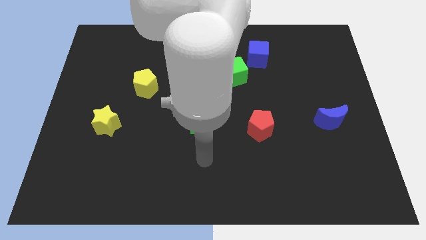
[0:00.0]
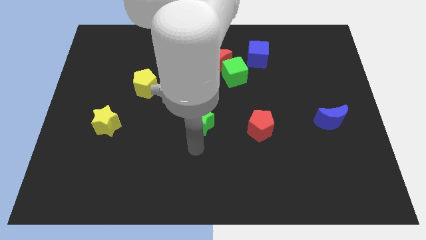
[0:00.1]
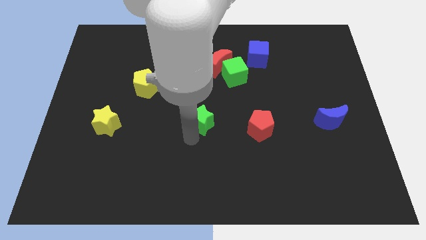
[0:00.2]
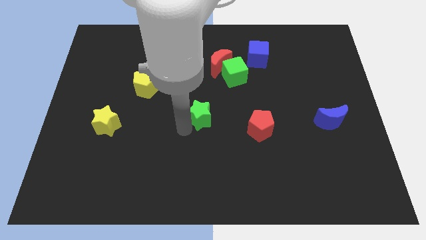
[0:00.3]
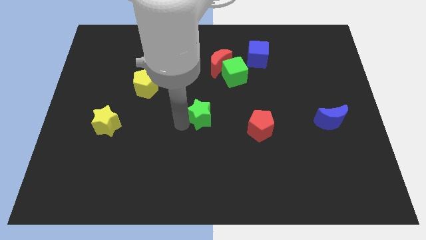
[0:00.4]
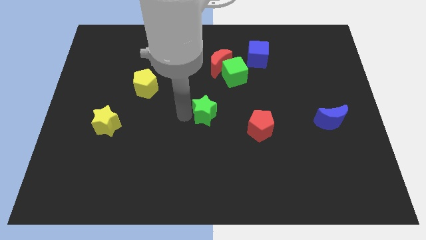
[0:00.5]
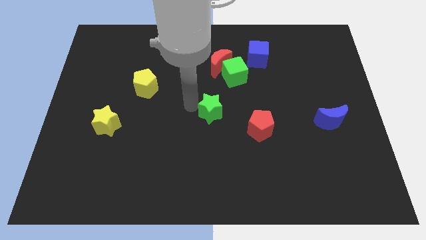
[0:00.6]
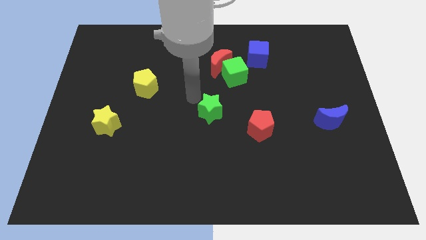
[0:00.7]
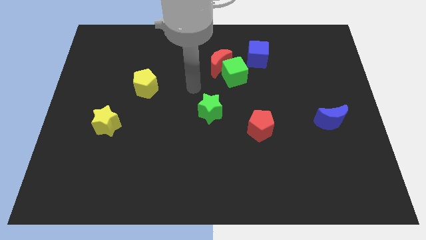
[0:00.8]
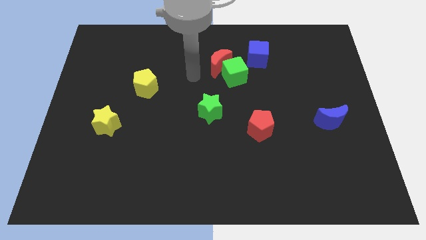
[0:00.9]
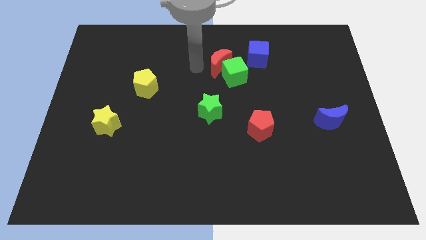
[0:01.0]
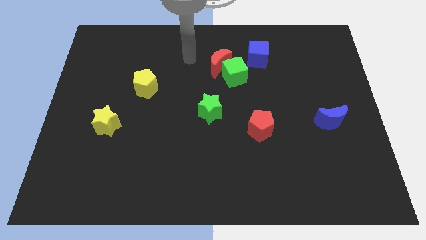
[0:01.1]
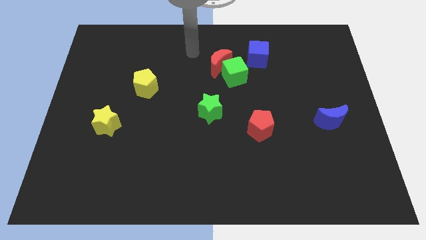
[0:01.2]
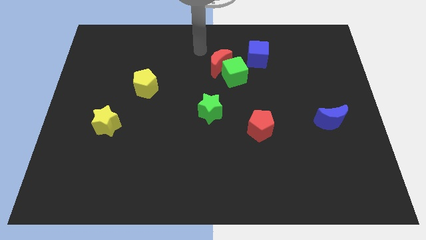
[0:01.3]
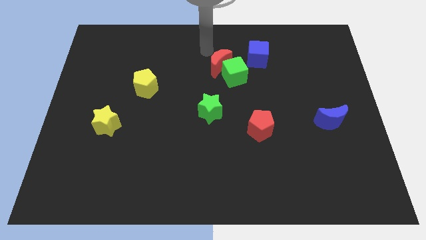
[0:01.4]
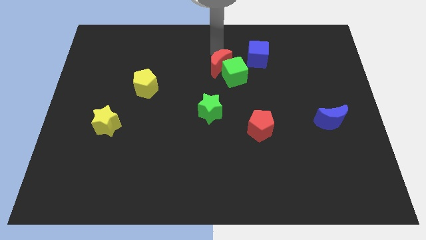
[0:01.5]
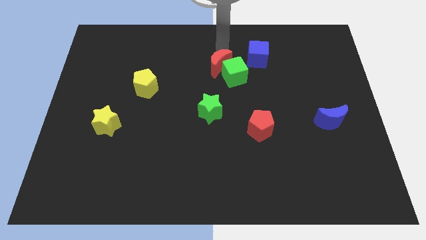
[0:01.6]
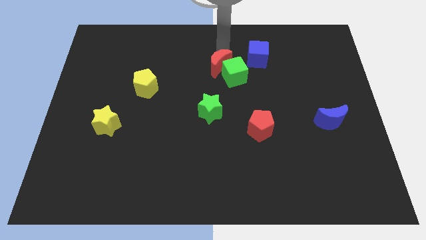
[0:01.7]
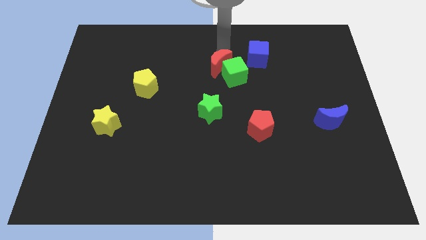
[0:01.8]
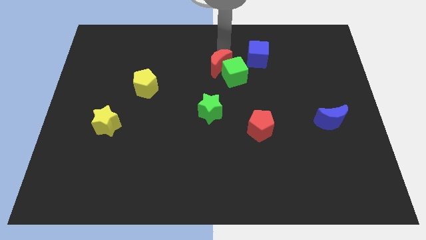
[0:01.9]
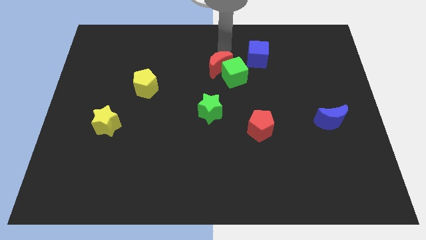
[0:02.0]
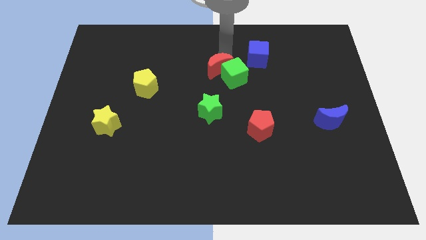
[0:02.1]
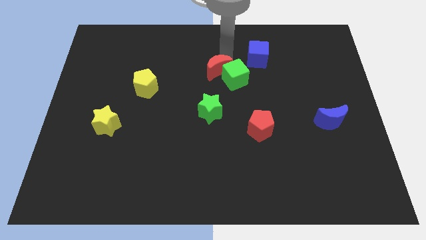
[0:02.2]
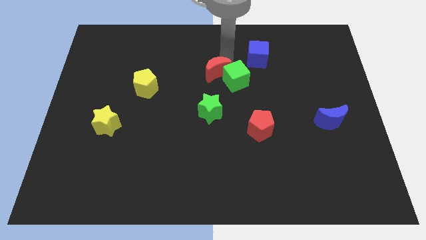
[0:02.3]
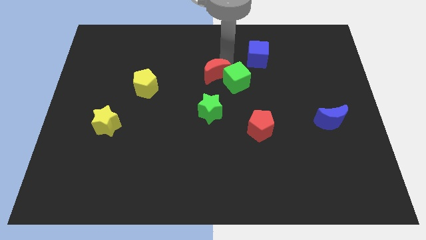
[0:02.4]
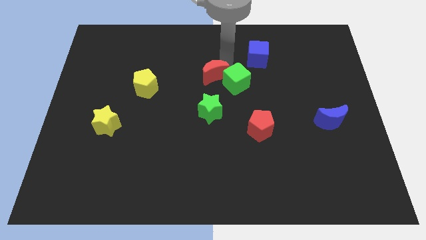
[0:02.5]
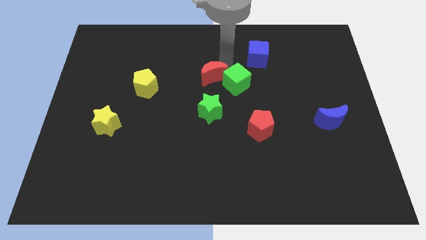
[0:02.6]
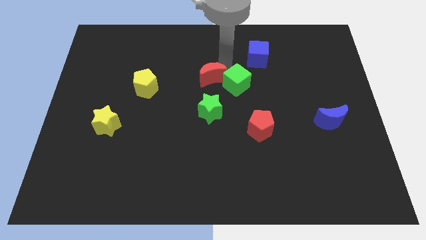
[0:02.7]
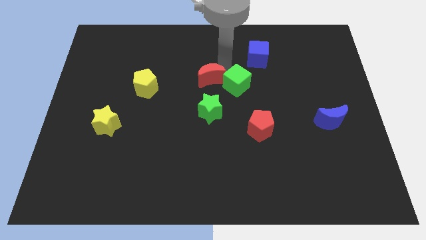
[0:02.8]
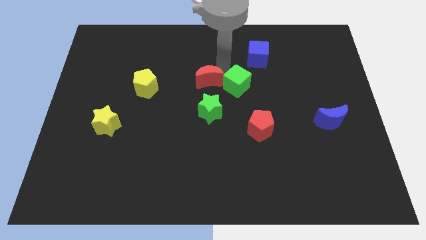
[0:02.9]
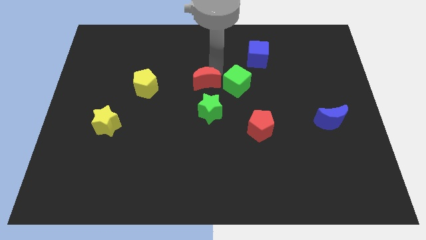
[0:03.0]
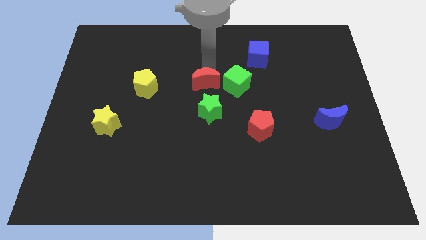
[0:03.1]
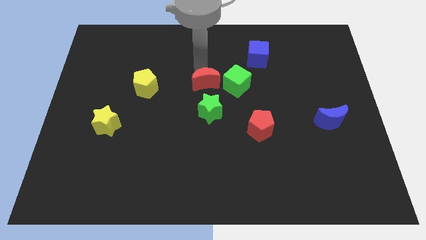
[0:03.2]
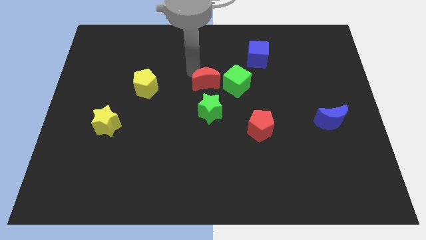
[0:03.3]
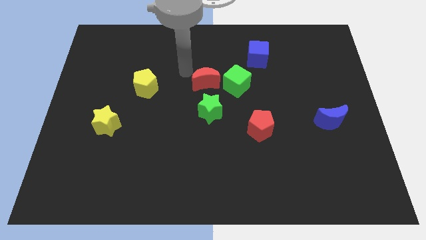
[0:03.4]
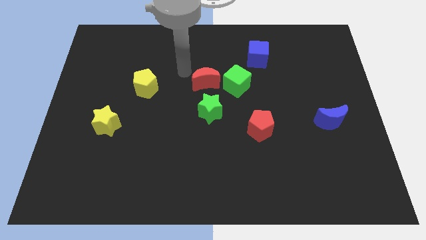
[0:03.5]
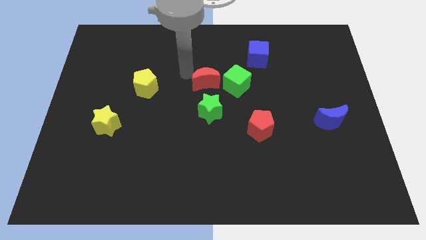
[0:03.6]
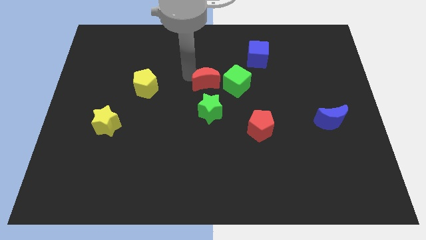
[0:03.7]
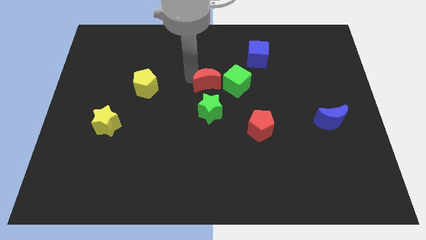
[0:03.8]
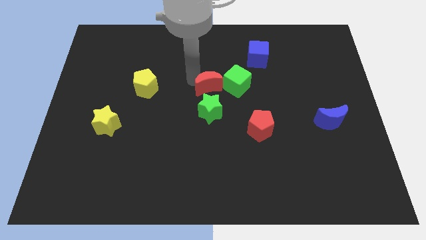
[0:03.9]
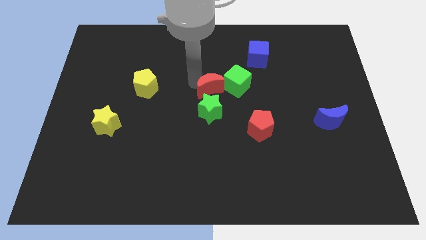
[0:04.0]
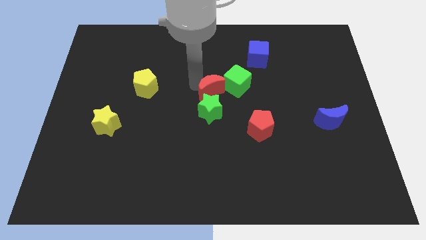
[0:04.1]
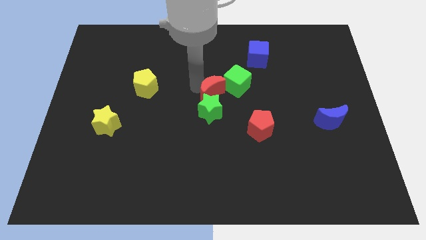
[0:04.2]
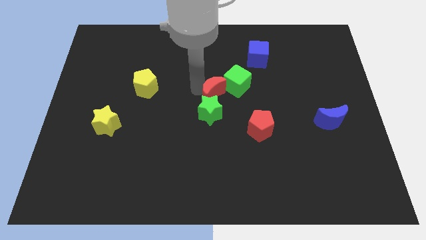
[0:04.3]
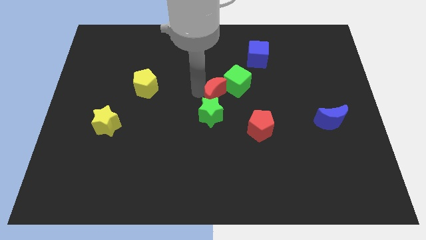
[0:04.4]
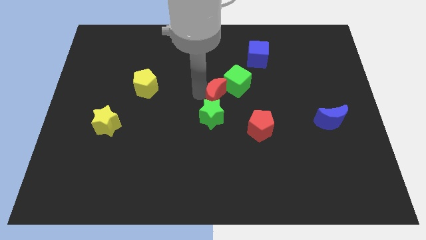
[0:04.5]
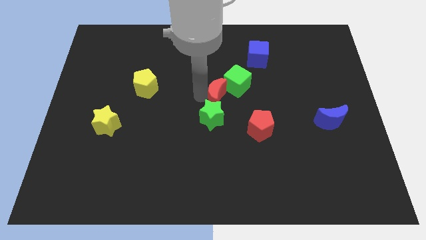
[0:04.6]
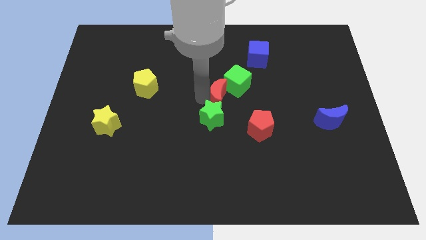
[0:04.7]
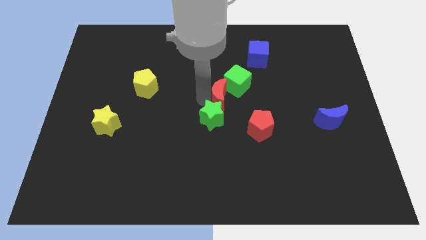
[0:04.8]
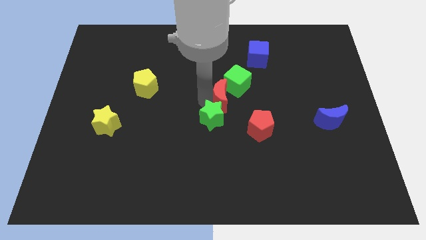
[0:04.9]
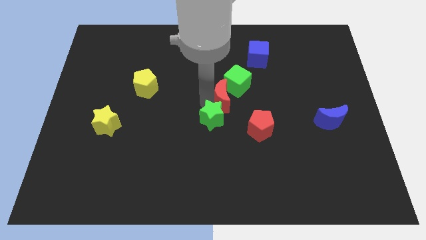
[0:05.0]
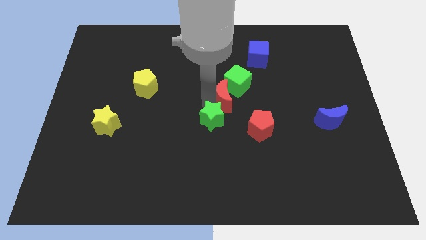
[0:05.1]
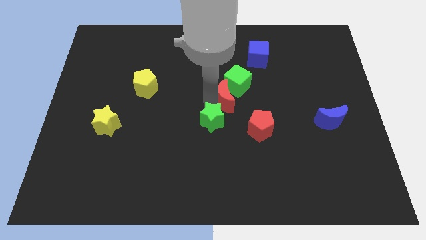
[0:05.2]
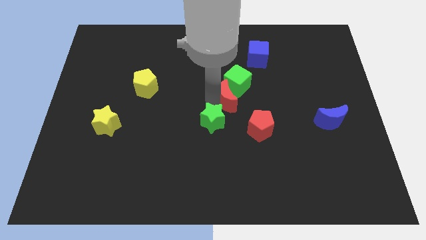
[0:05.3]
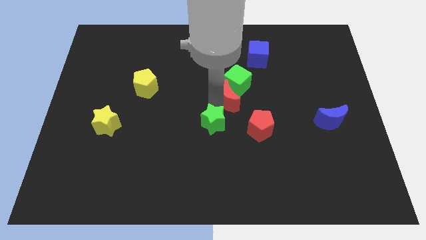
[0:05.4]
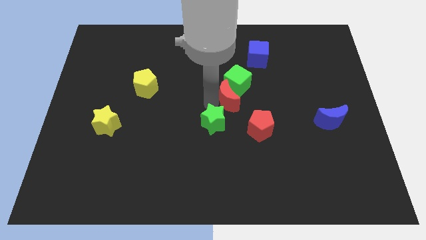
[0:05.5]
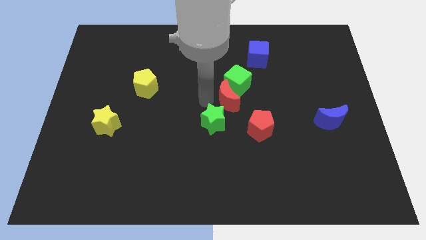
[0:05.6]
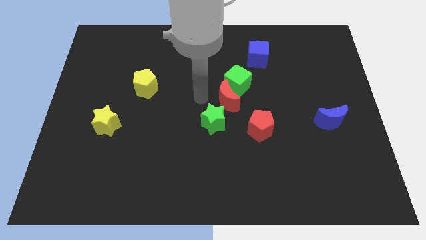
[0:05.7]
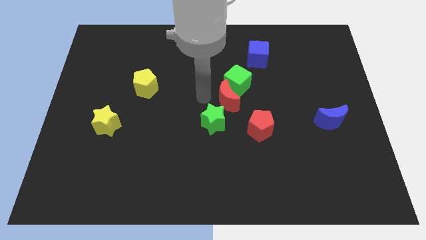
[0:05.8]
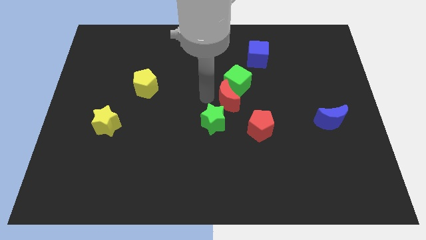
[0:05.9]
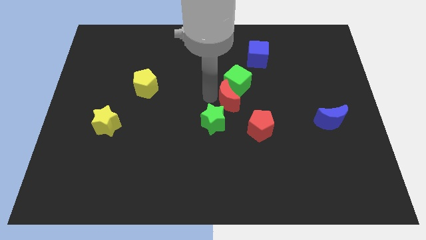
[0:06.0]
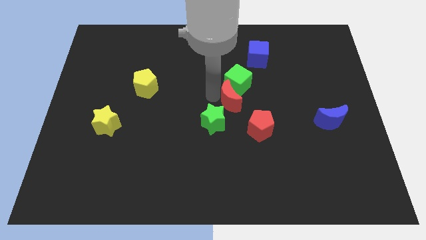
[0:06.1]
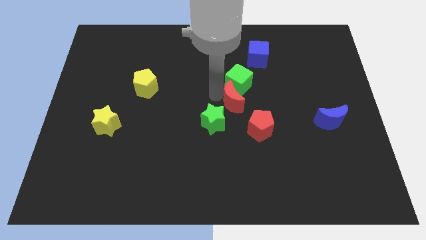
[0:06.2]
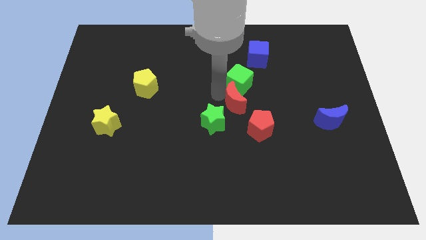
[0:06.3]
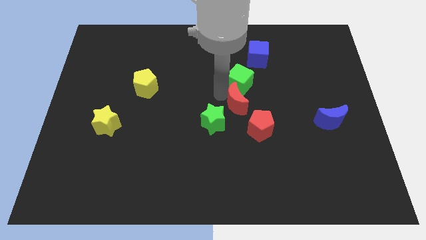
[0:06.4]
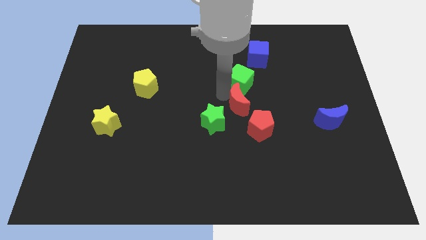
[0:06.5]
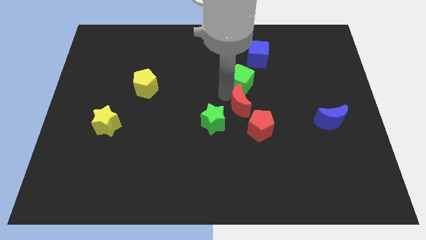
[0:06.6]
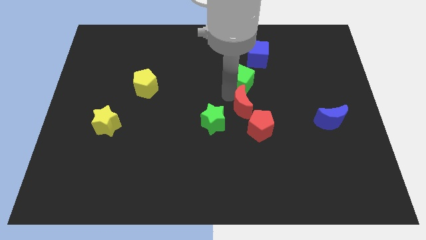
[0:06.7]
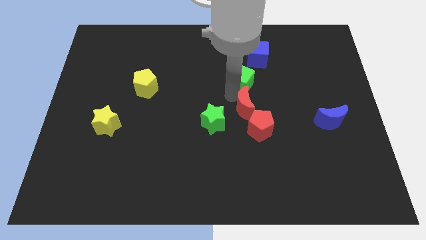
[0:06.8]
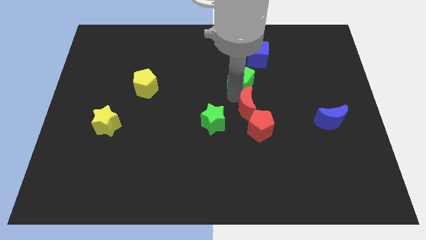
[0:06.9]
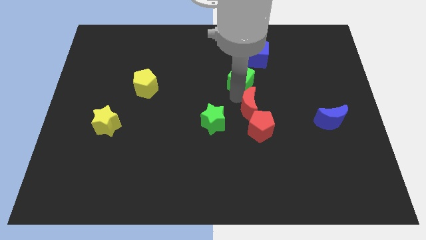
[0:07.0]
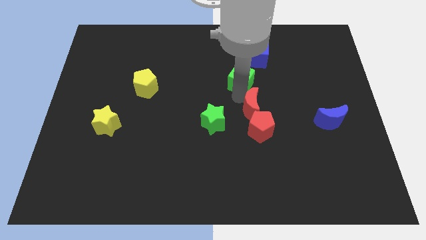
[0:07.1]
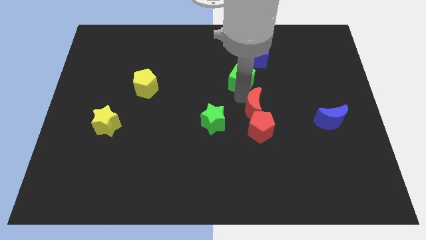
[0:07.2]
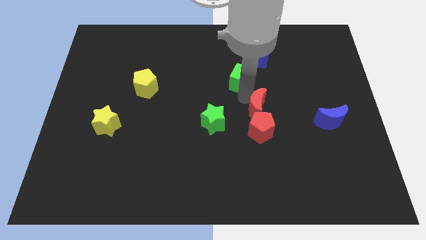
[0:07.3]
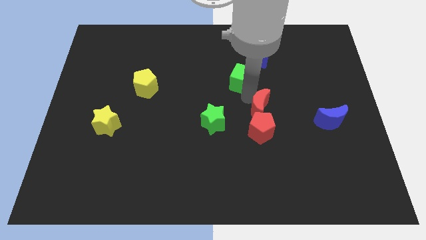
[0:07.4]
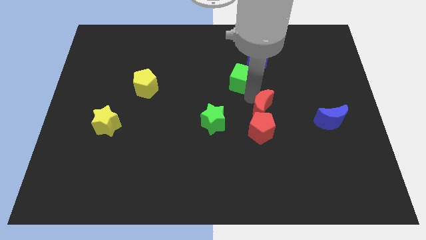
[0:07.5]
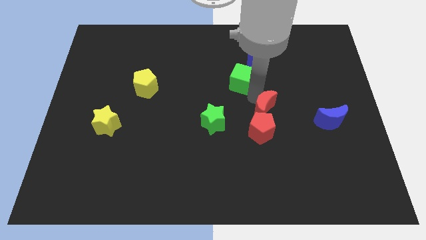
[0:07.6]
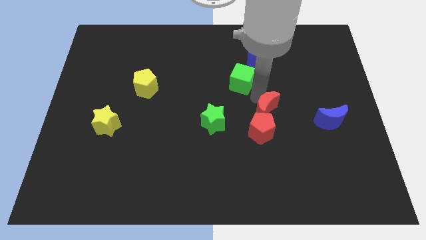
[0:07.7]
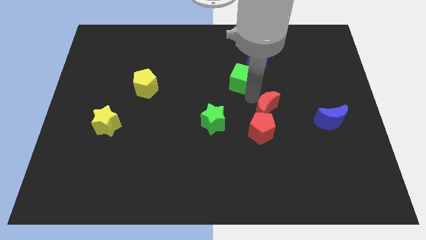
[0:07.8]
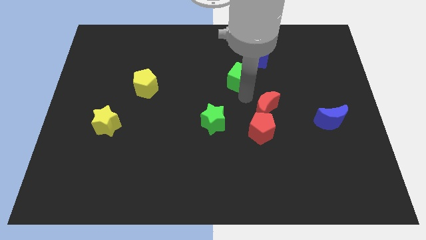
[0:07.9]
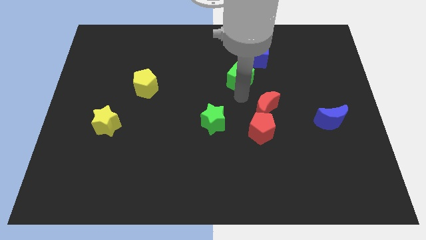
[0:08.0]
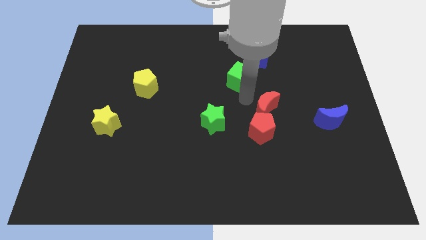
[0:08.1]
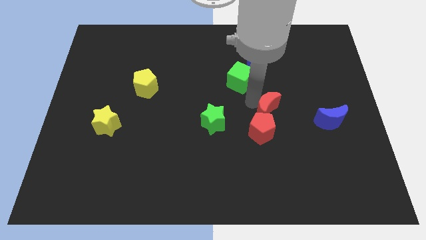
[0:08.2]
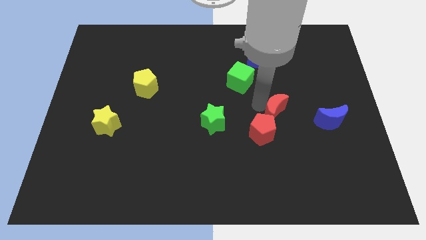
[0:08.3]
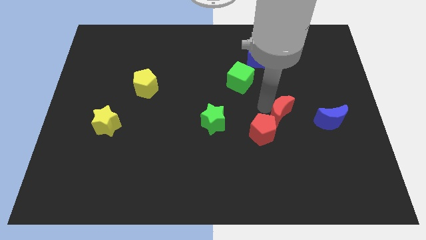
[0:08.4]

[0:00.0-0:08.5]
push the red moon down and to the right
